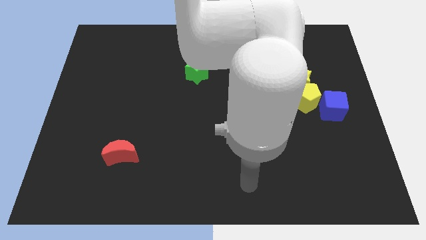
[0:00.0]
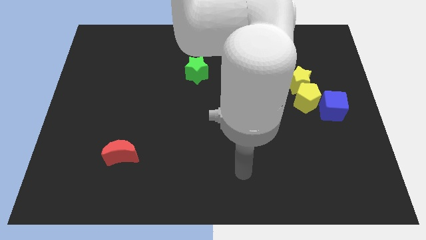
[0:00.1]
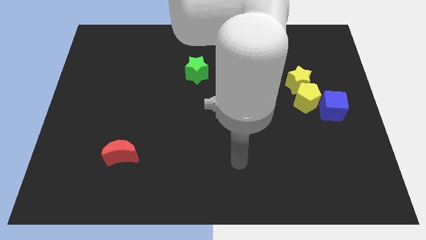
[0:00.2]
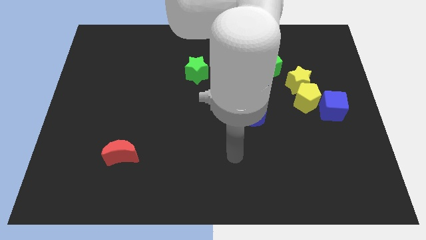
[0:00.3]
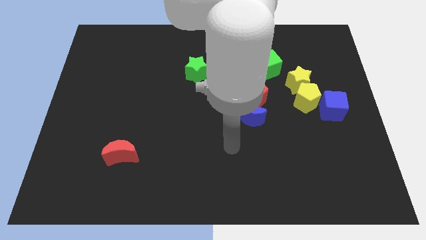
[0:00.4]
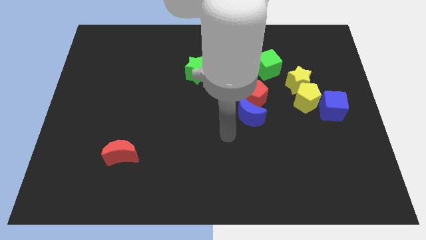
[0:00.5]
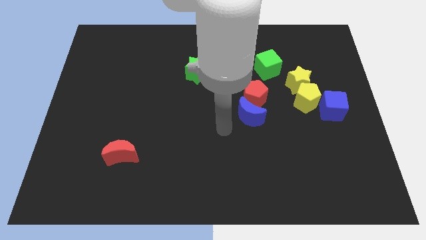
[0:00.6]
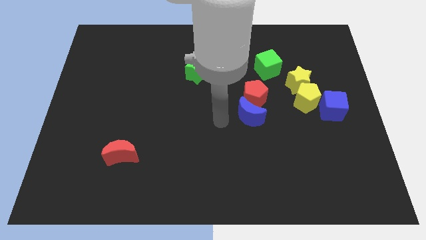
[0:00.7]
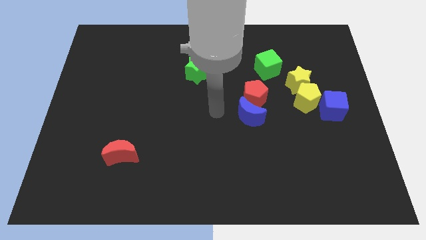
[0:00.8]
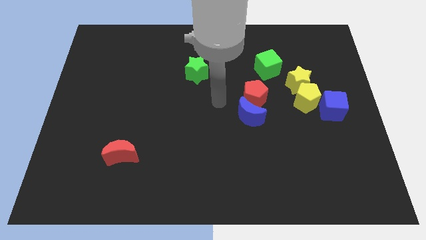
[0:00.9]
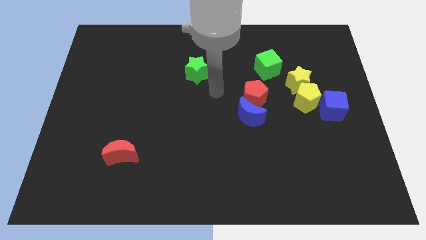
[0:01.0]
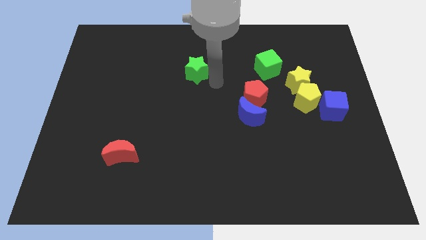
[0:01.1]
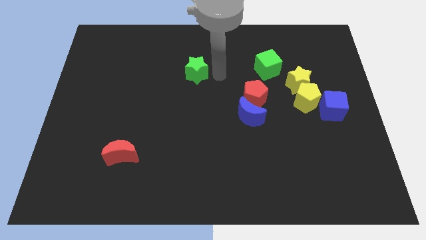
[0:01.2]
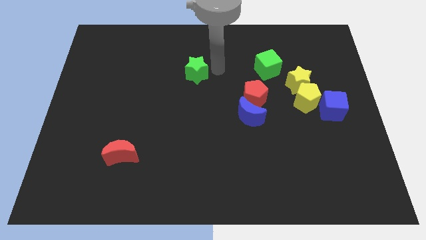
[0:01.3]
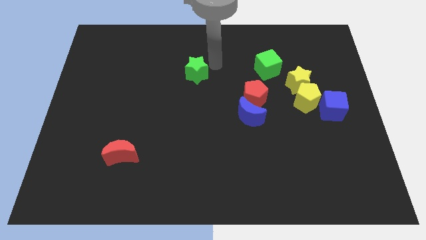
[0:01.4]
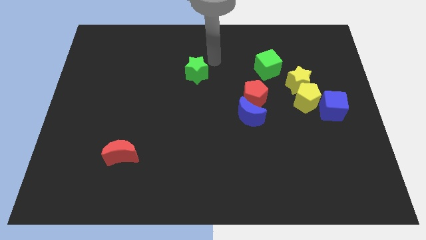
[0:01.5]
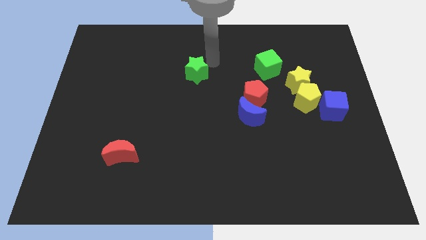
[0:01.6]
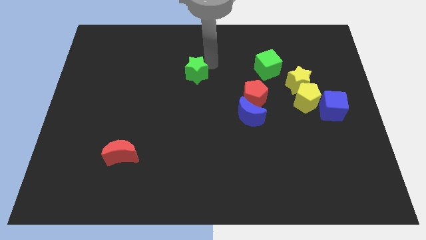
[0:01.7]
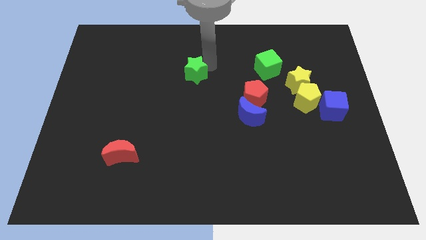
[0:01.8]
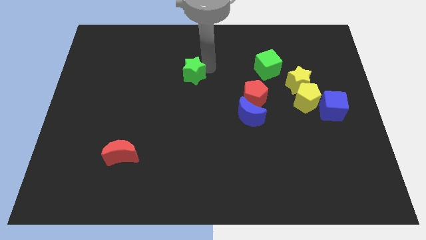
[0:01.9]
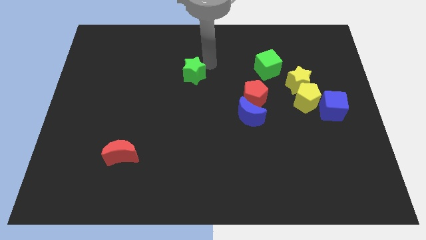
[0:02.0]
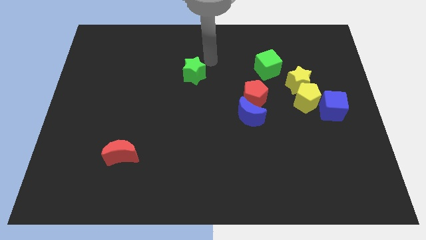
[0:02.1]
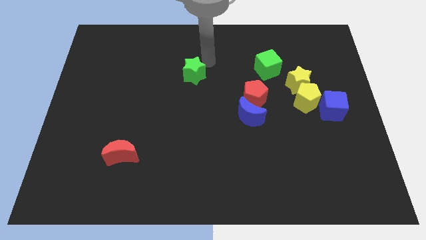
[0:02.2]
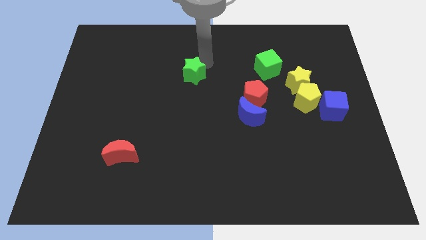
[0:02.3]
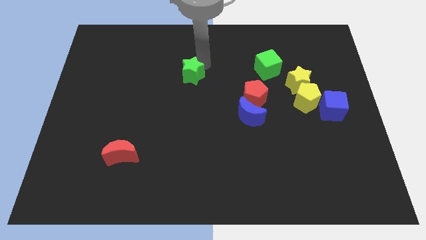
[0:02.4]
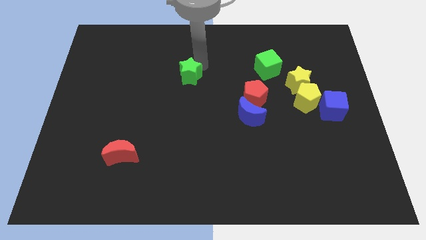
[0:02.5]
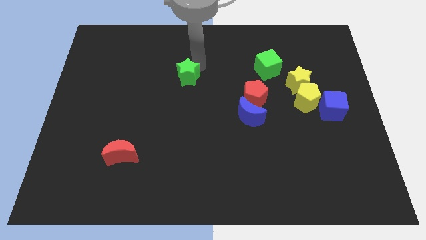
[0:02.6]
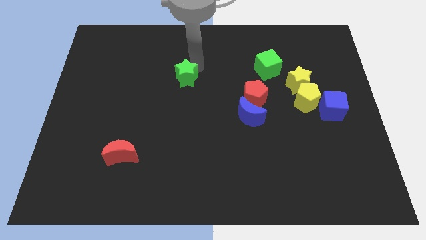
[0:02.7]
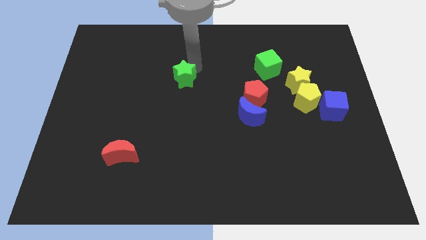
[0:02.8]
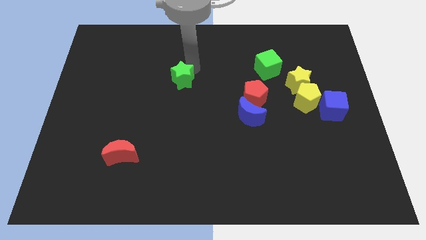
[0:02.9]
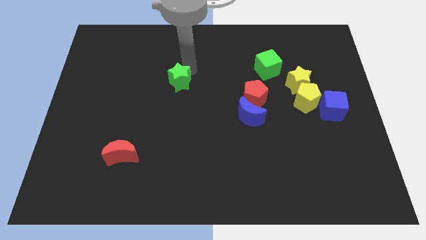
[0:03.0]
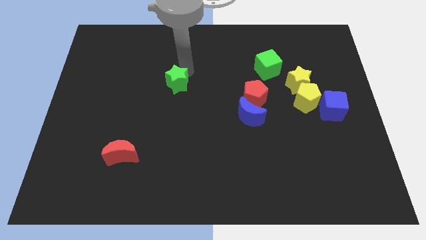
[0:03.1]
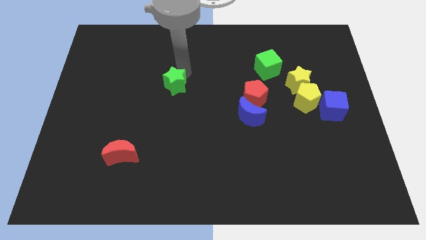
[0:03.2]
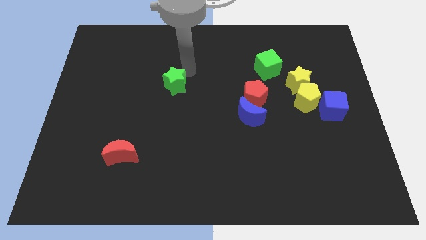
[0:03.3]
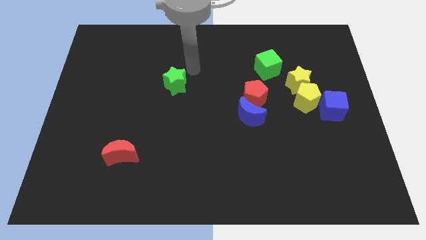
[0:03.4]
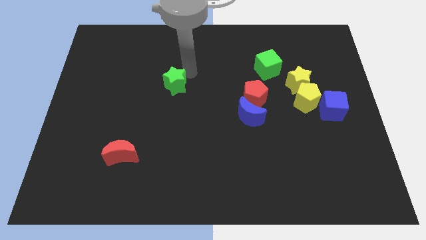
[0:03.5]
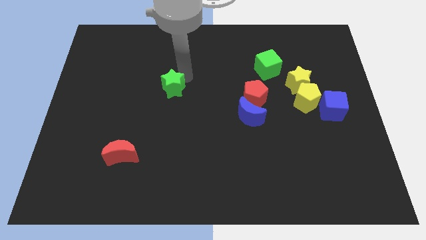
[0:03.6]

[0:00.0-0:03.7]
slide the green star slightly down and then left

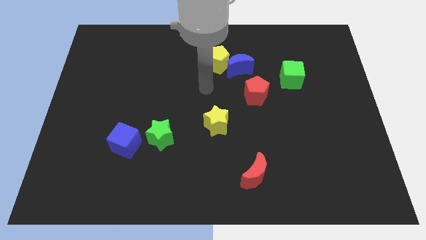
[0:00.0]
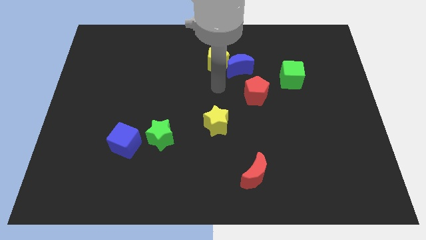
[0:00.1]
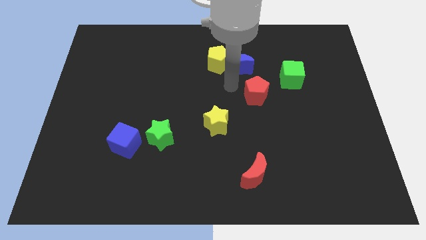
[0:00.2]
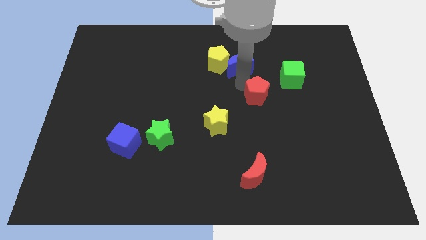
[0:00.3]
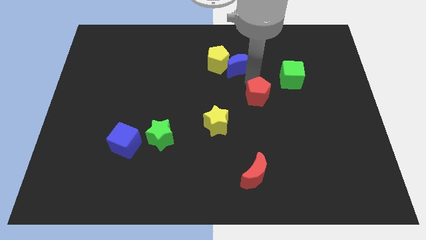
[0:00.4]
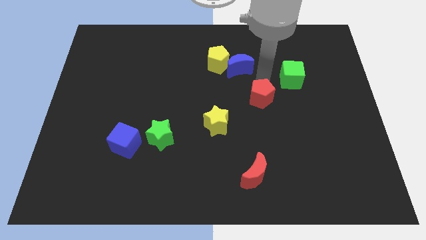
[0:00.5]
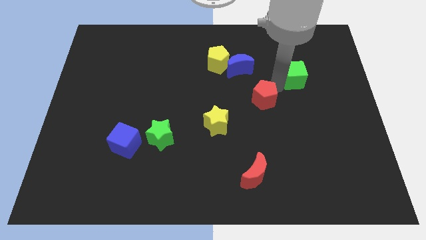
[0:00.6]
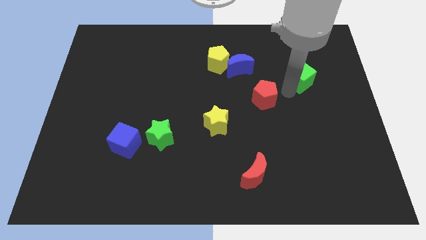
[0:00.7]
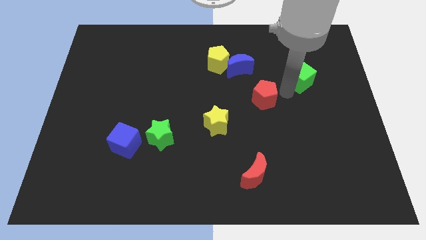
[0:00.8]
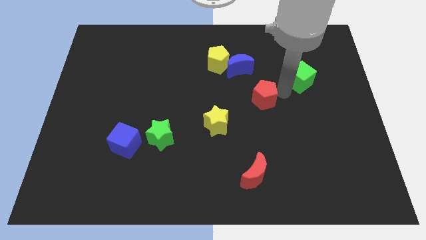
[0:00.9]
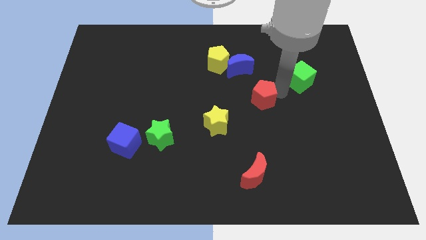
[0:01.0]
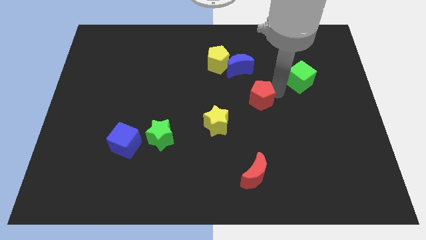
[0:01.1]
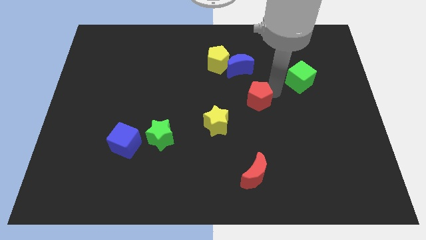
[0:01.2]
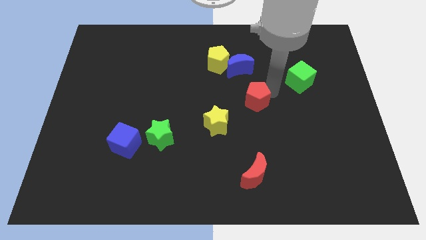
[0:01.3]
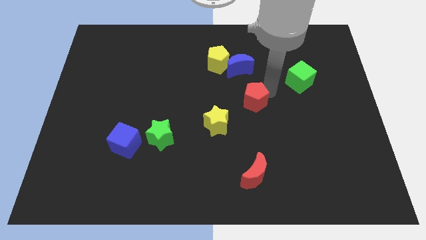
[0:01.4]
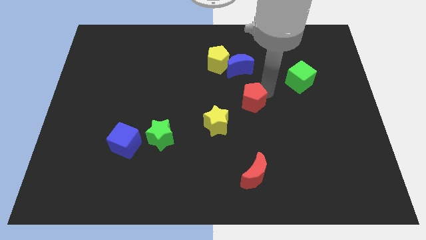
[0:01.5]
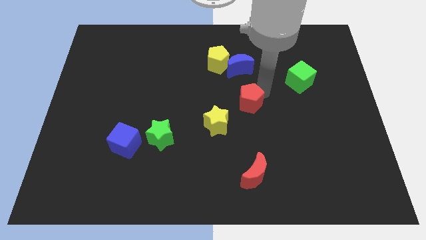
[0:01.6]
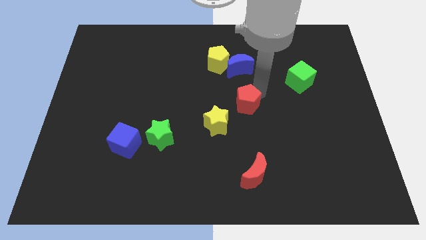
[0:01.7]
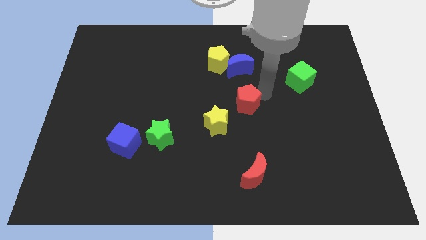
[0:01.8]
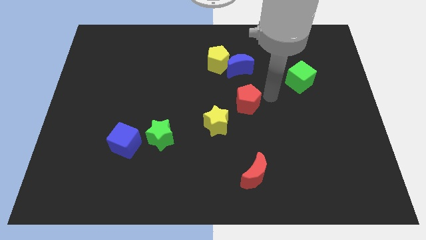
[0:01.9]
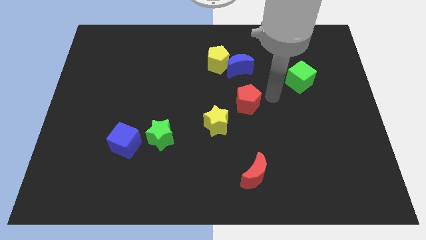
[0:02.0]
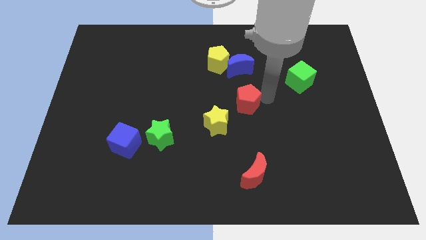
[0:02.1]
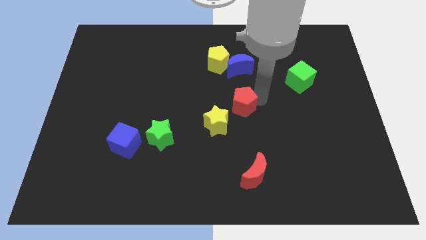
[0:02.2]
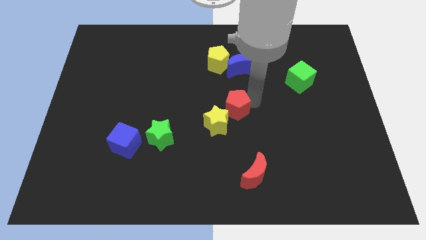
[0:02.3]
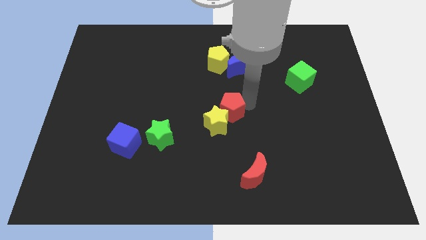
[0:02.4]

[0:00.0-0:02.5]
move the red pentagon down and left slightly

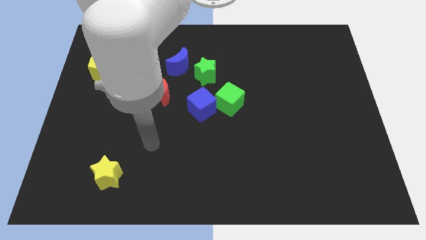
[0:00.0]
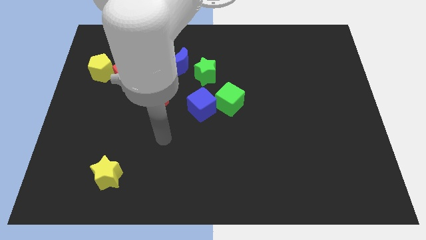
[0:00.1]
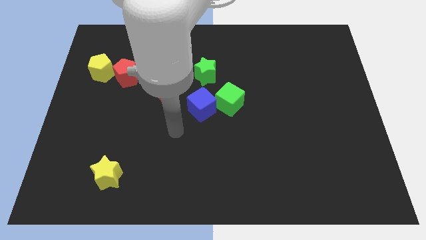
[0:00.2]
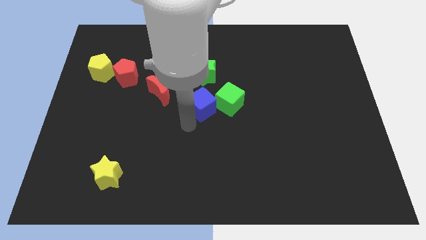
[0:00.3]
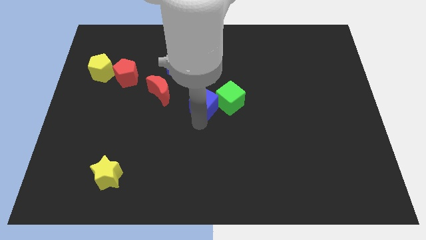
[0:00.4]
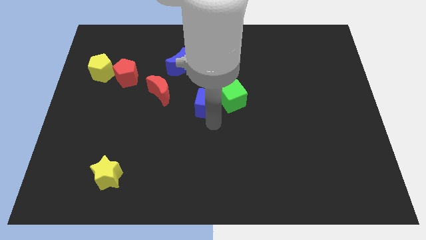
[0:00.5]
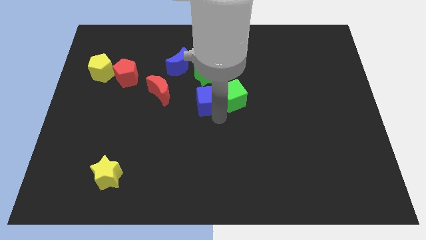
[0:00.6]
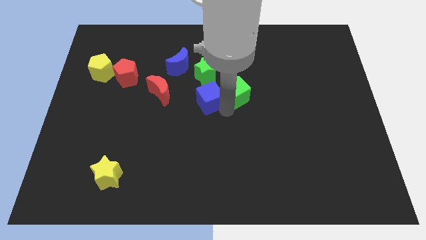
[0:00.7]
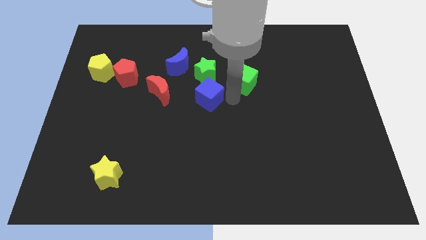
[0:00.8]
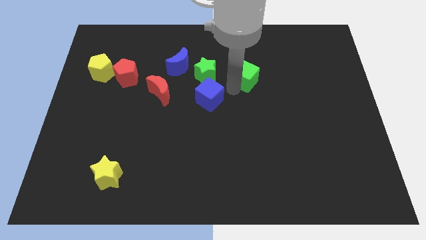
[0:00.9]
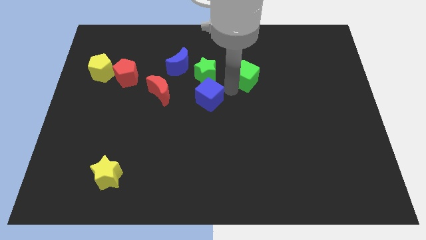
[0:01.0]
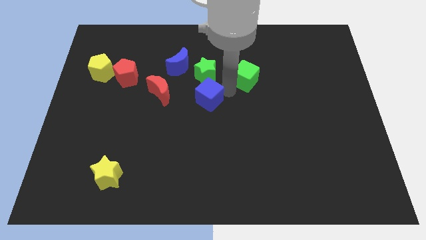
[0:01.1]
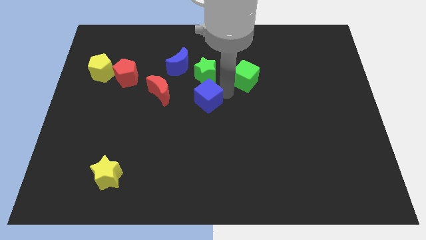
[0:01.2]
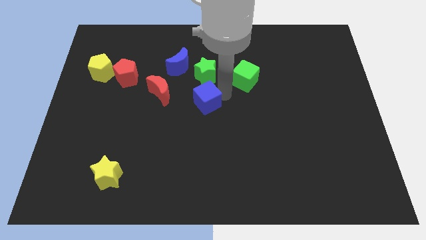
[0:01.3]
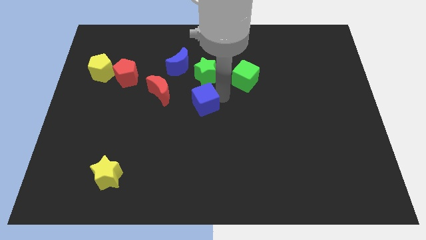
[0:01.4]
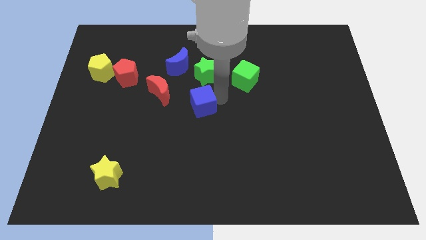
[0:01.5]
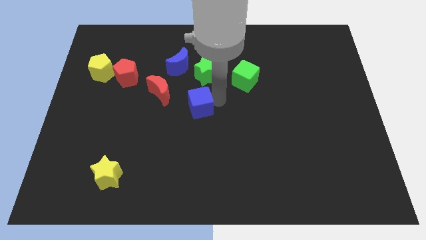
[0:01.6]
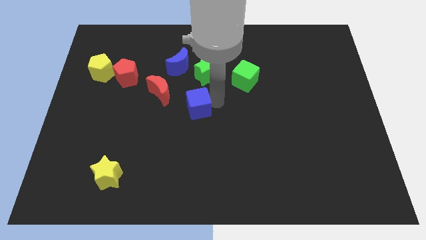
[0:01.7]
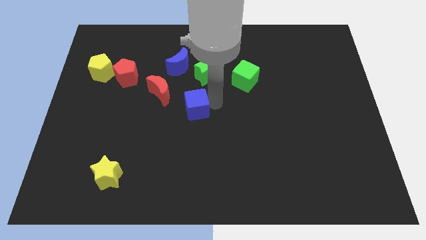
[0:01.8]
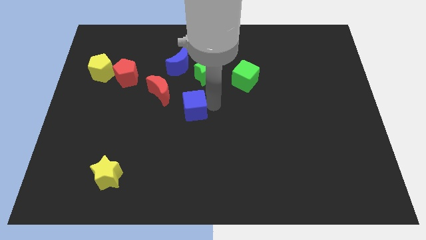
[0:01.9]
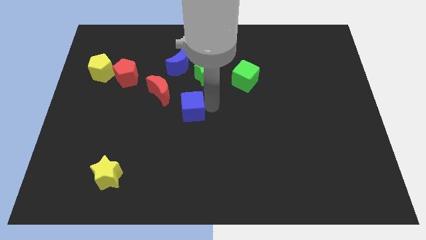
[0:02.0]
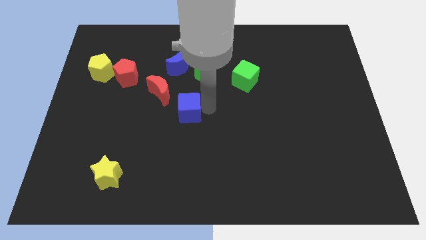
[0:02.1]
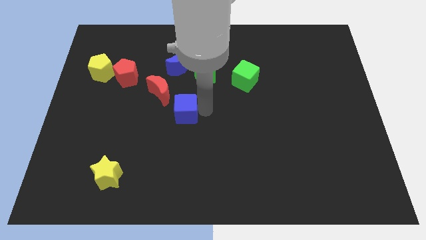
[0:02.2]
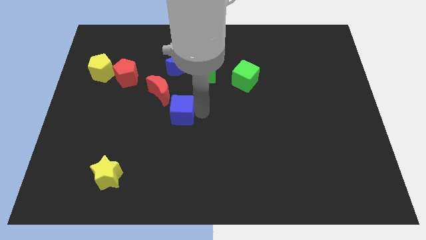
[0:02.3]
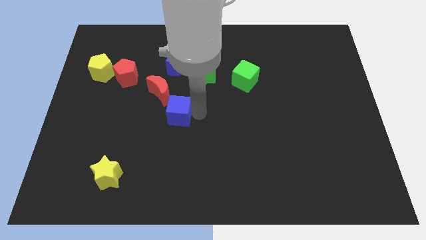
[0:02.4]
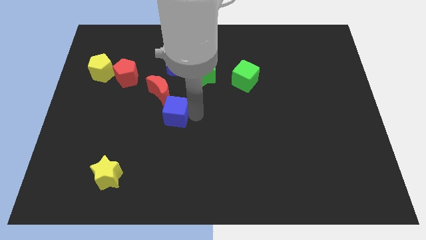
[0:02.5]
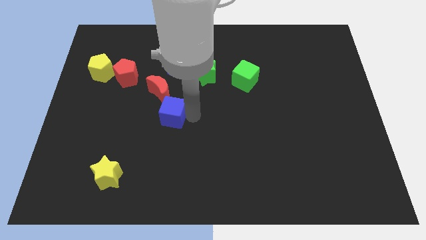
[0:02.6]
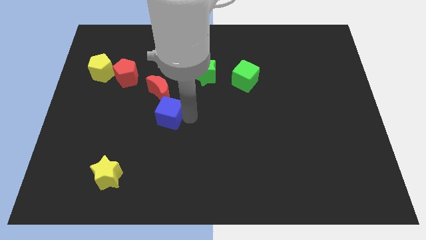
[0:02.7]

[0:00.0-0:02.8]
slide the blue cube somewhat to the left
